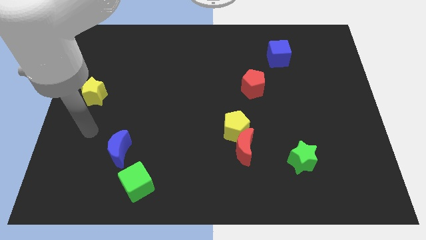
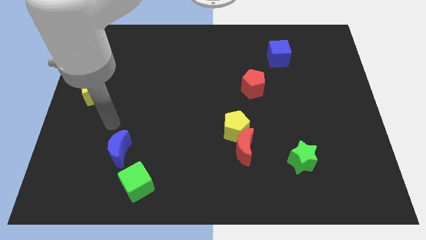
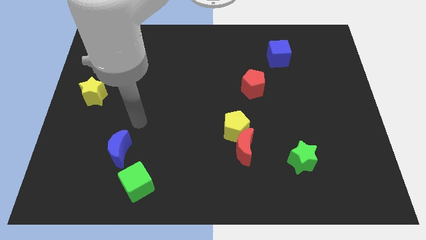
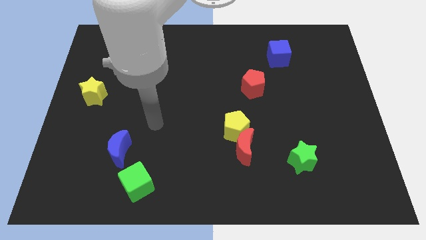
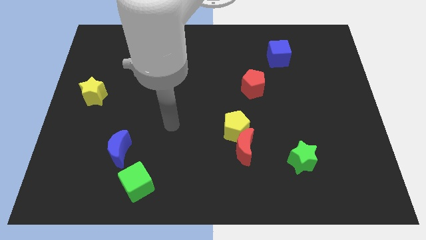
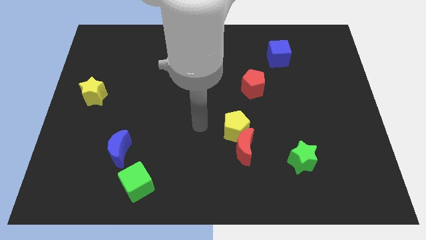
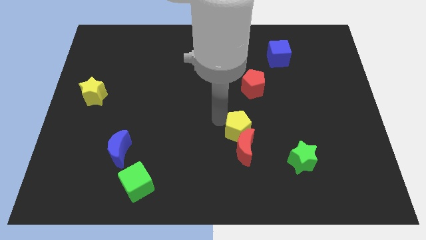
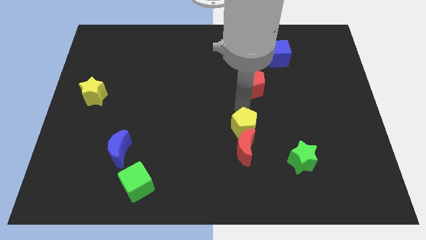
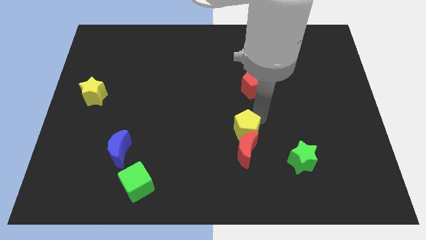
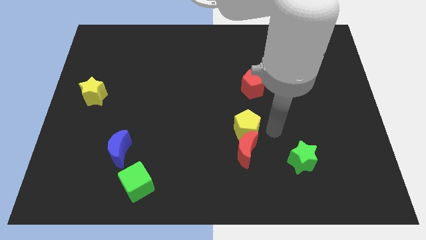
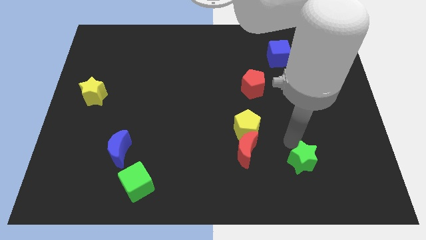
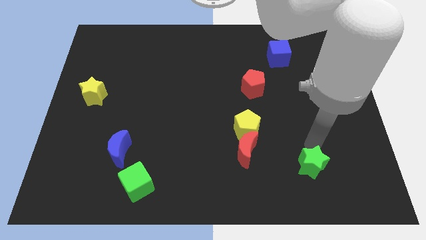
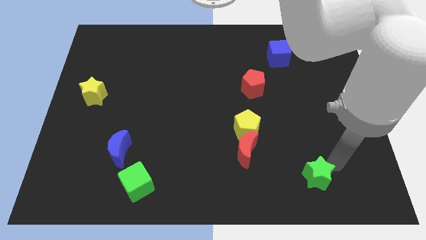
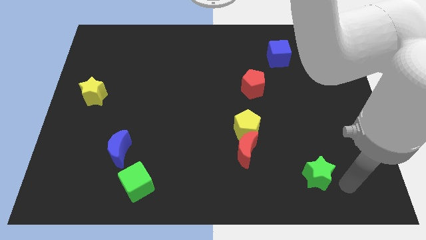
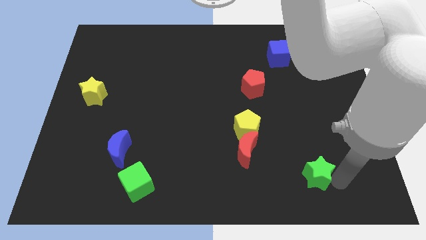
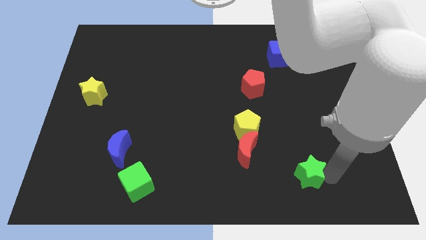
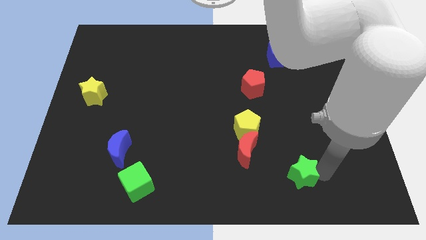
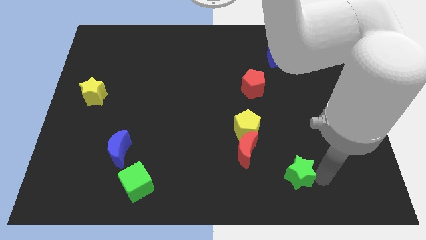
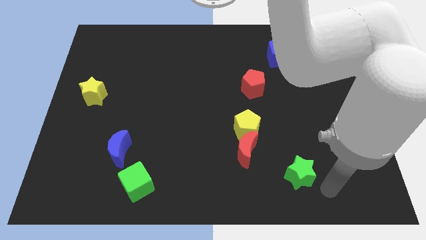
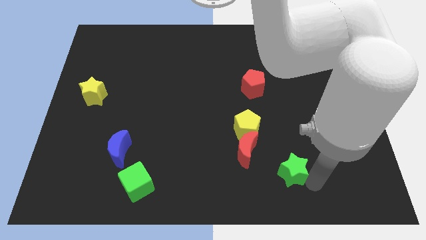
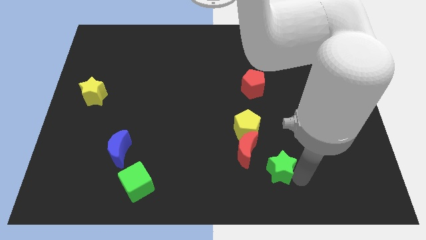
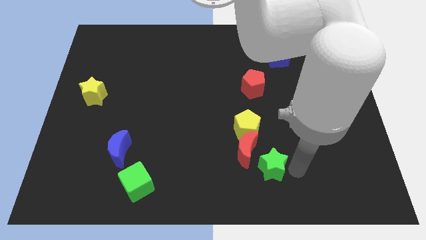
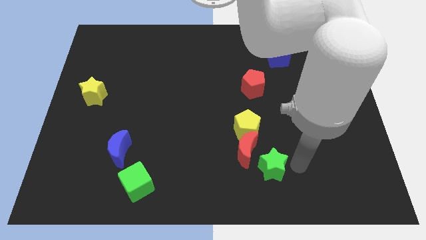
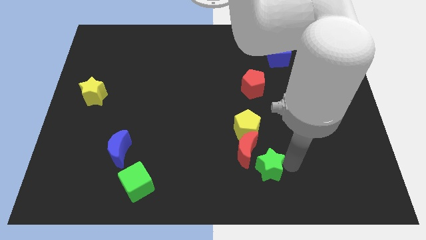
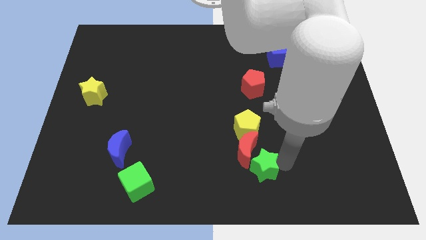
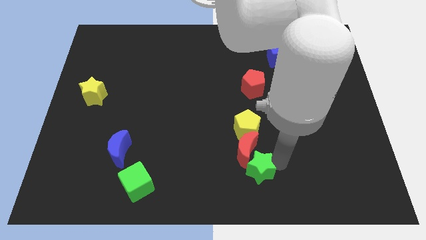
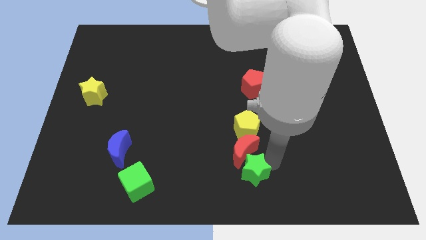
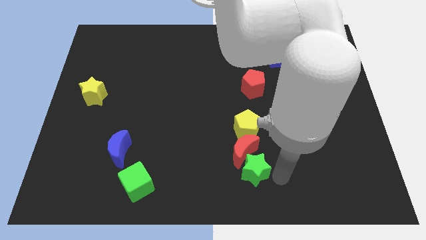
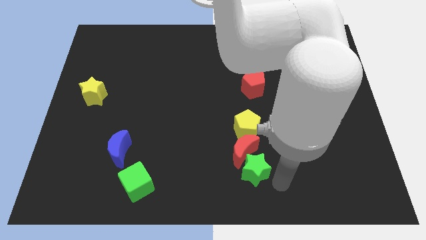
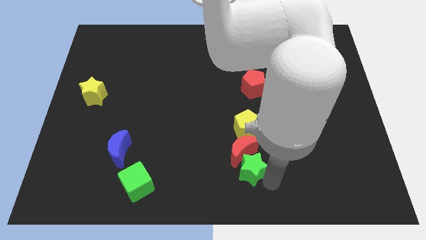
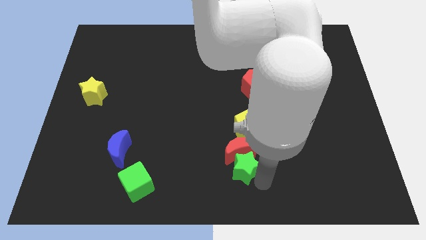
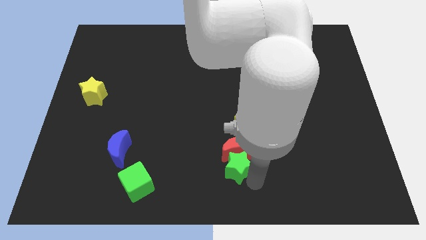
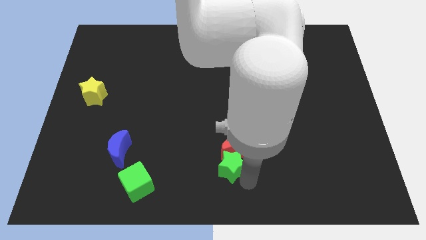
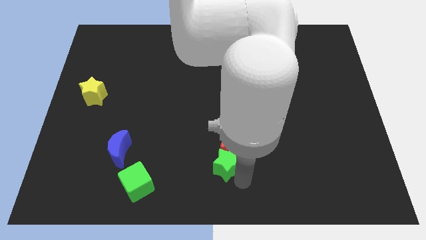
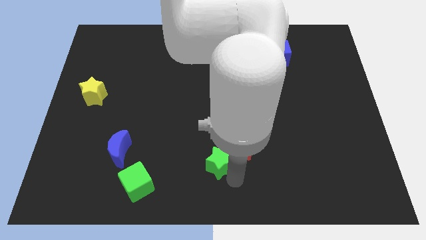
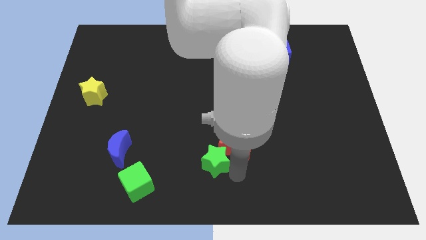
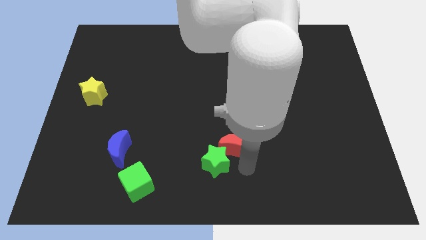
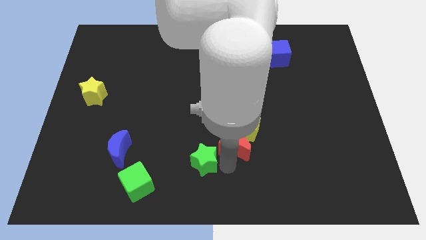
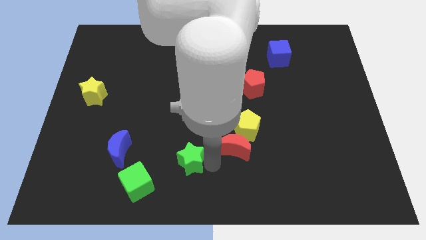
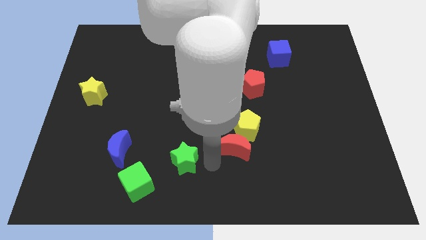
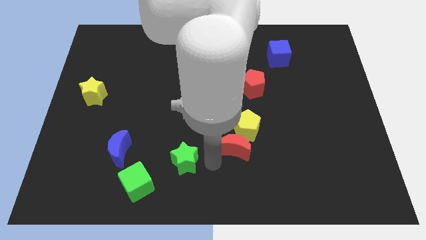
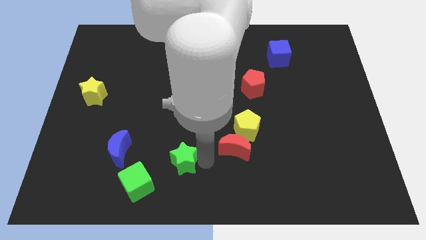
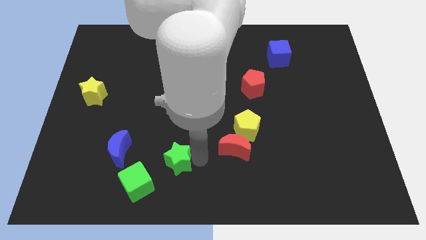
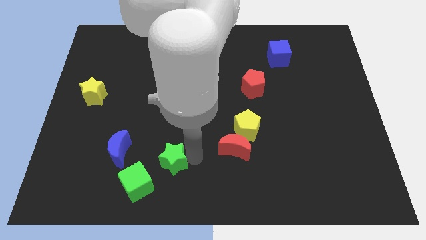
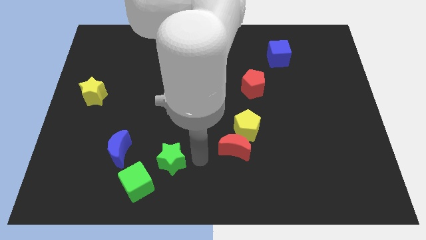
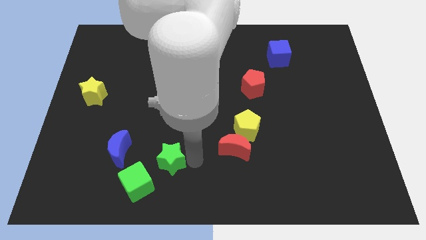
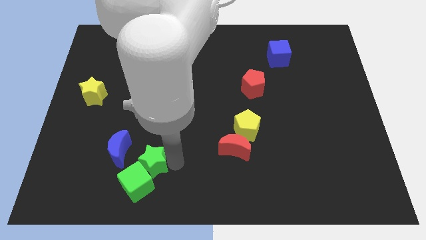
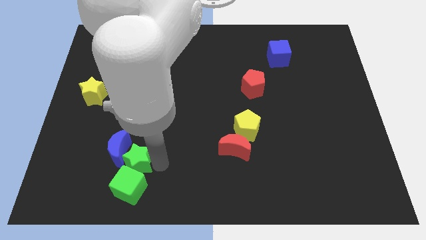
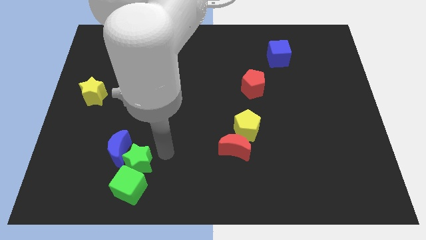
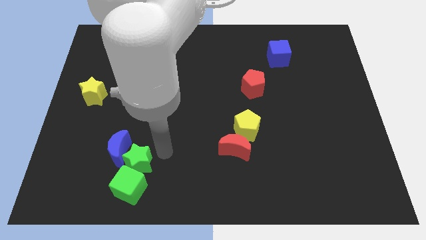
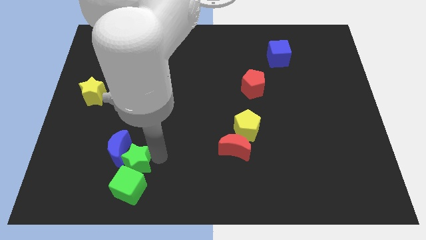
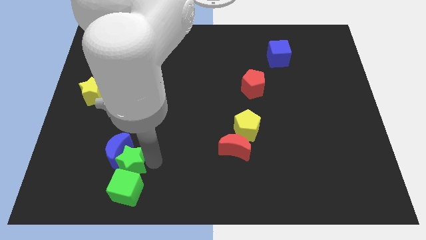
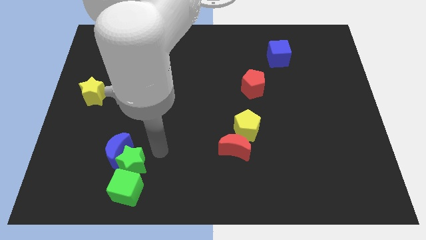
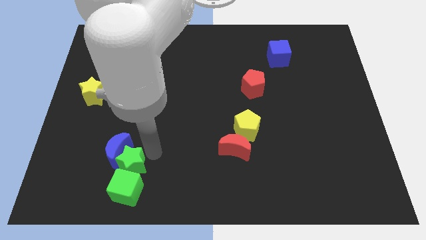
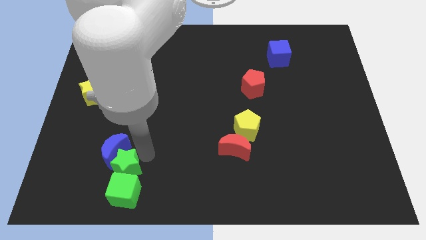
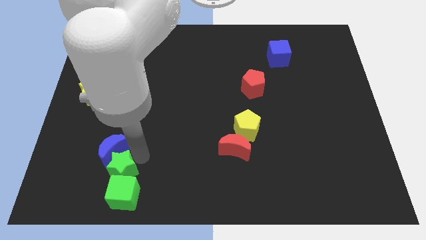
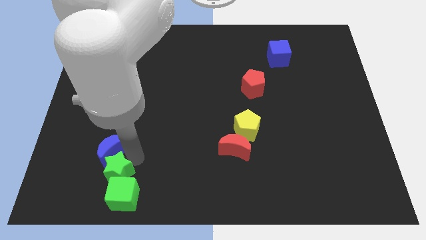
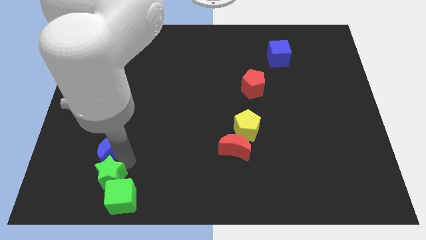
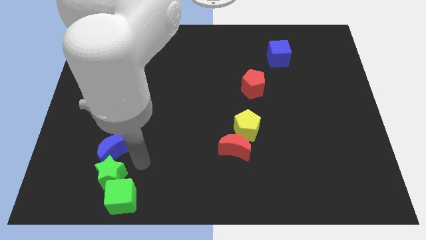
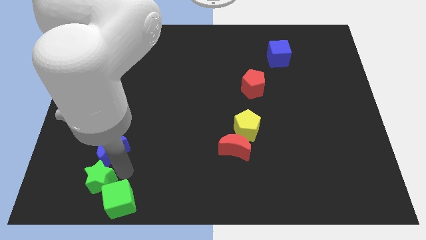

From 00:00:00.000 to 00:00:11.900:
move the green star to the left of the green cube

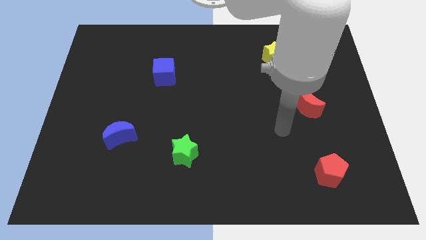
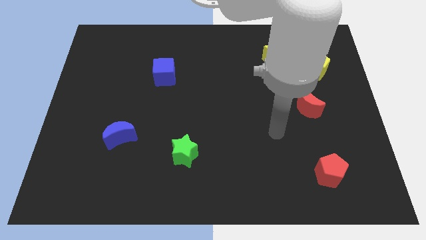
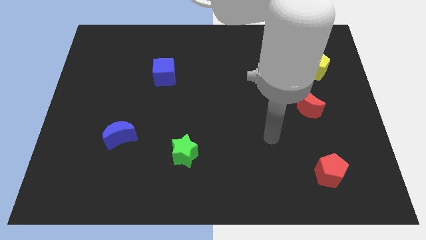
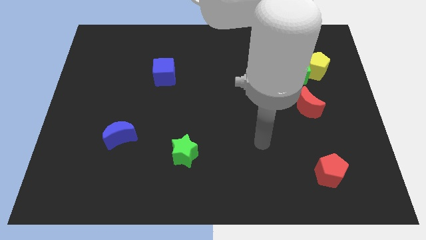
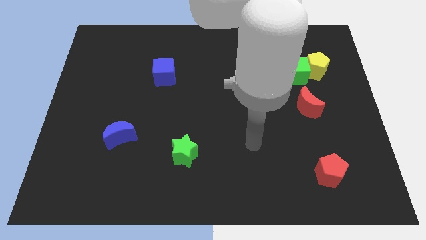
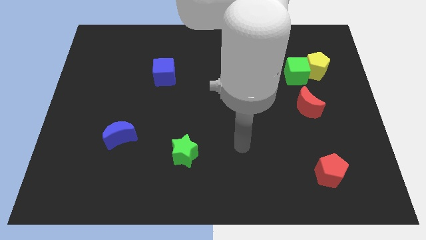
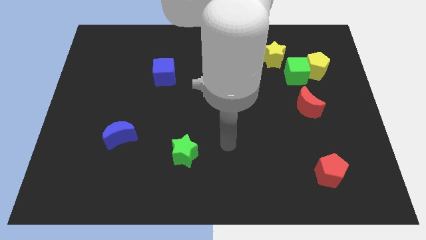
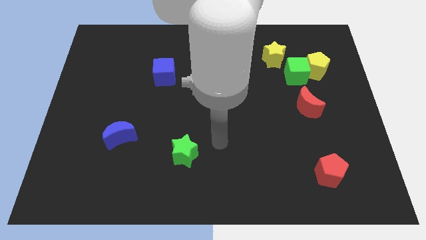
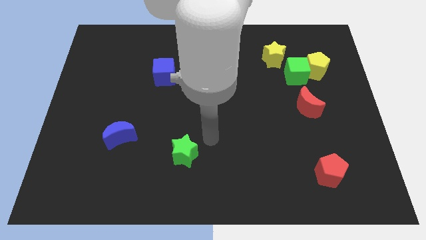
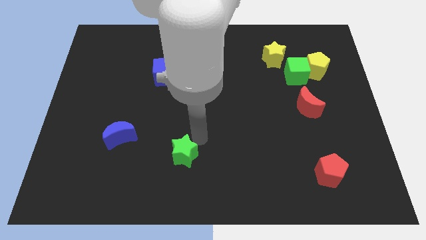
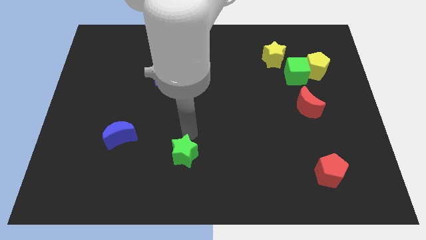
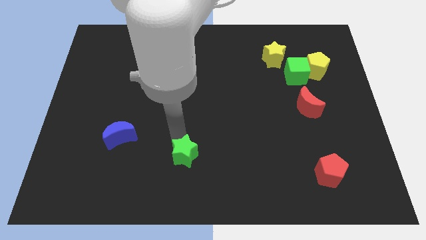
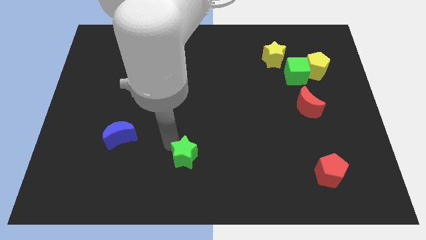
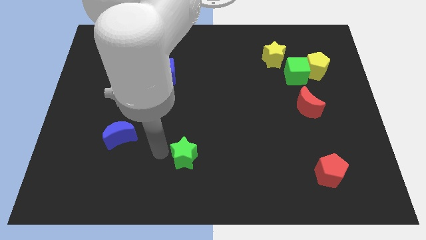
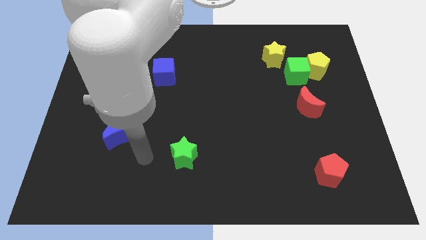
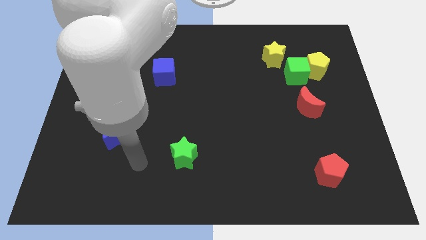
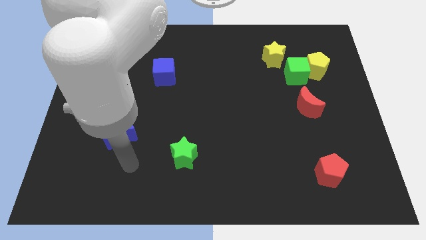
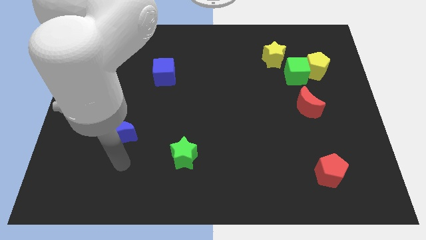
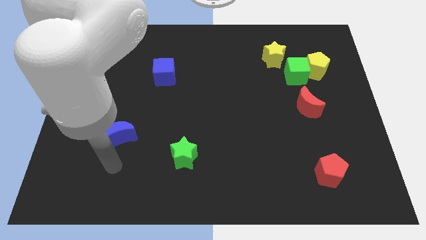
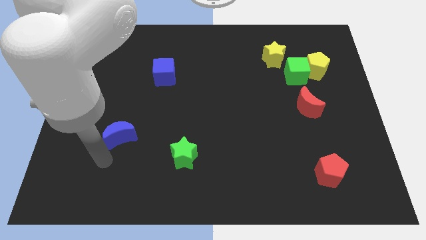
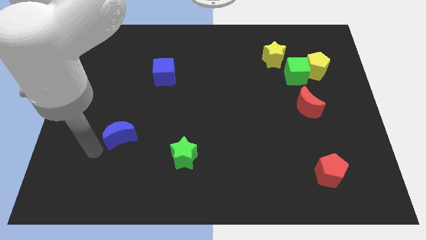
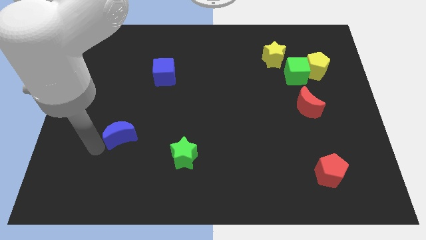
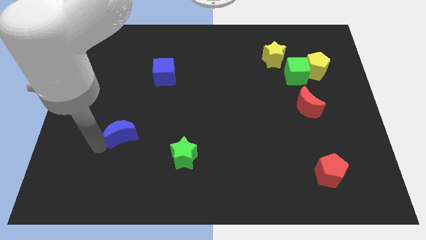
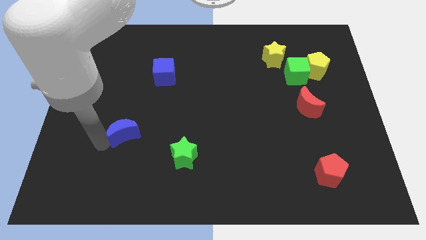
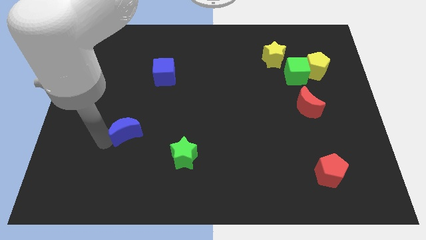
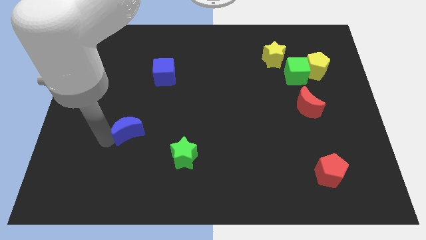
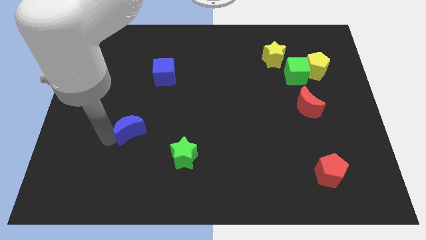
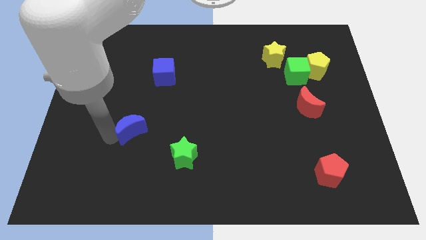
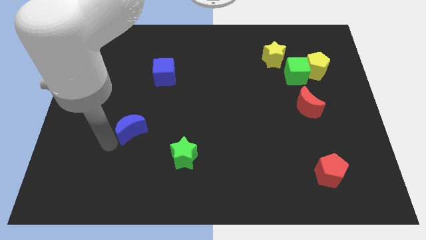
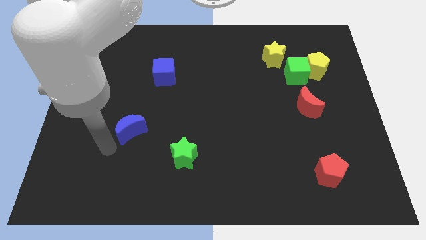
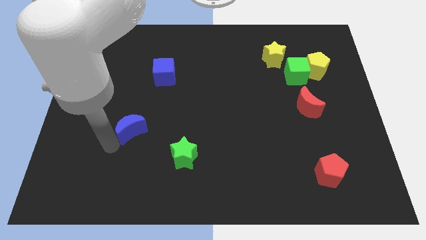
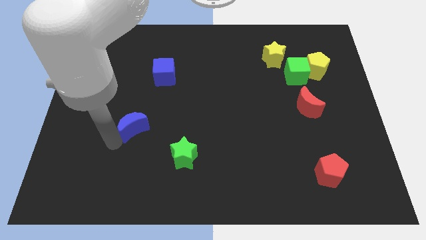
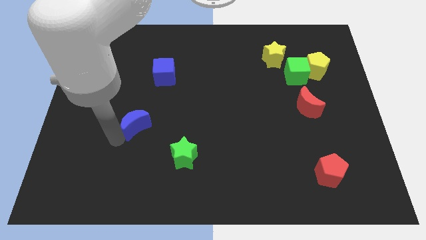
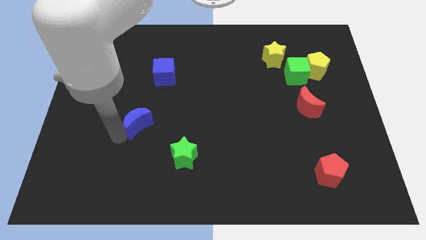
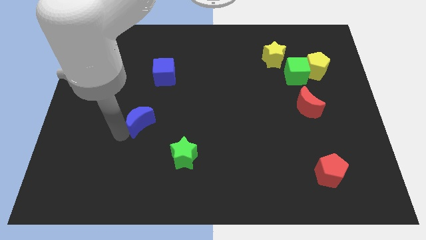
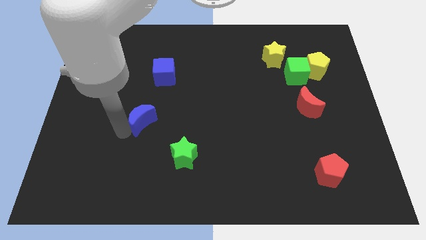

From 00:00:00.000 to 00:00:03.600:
push the blue moon to the bottom side of the blue cube
